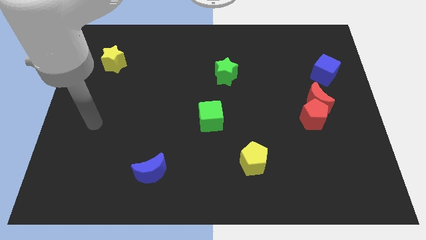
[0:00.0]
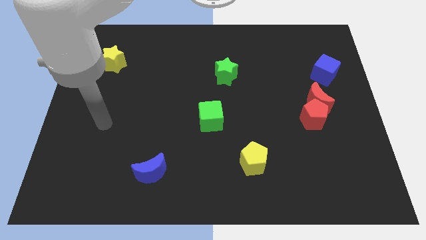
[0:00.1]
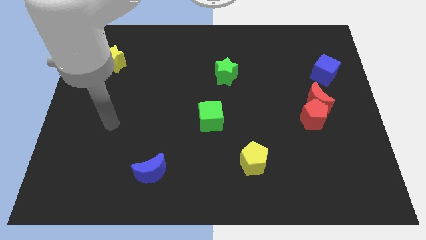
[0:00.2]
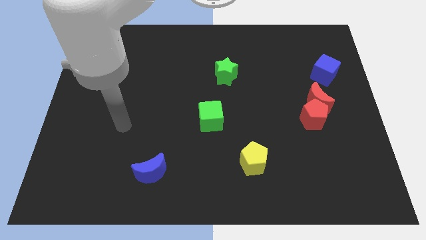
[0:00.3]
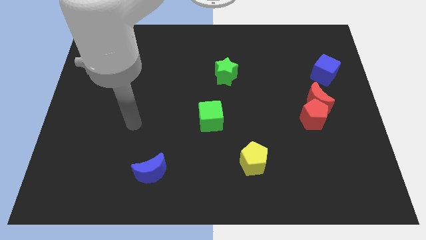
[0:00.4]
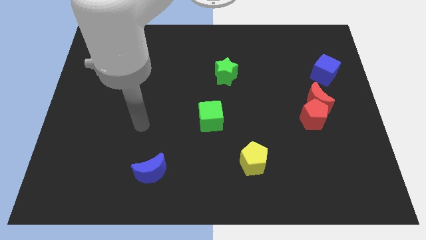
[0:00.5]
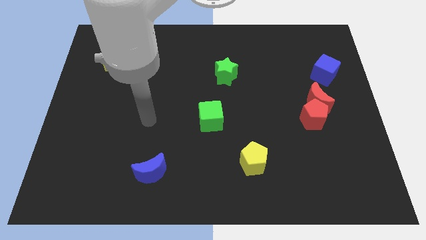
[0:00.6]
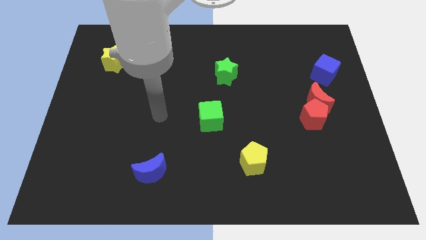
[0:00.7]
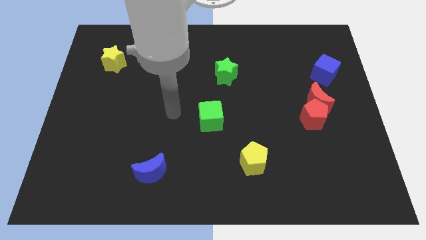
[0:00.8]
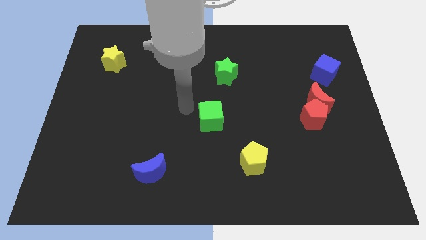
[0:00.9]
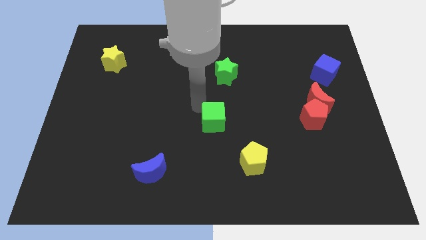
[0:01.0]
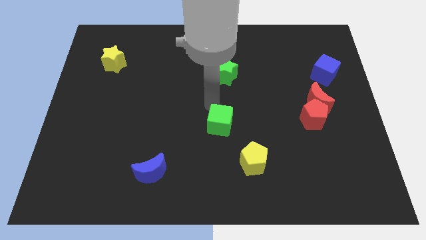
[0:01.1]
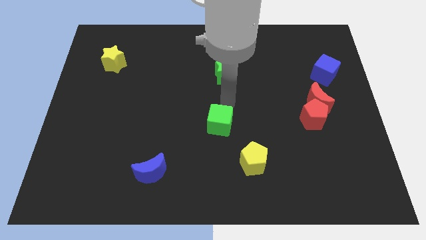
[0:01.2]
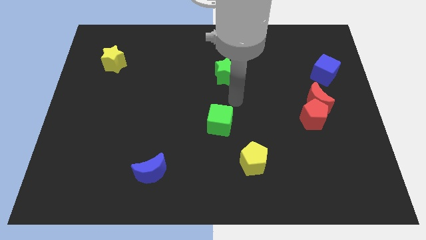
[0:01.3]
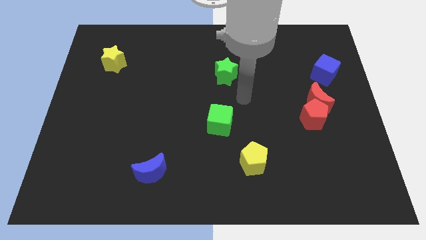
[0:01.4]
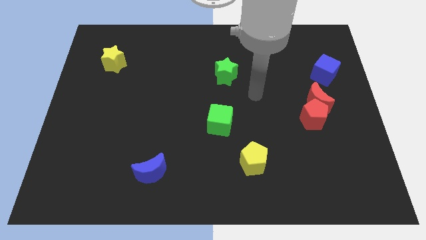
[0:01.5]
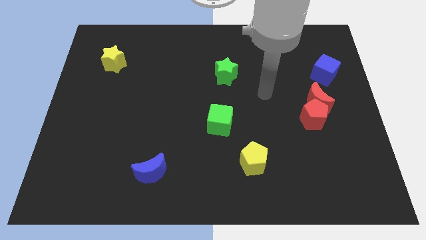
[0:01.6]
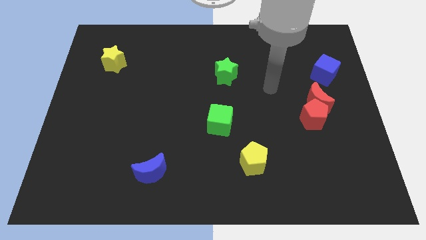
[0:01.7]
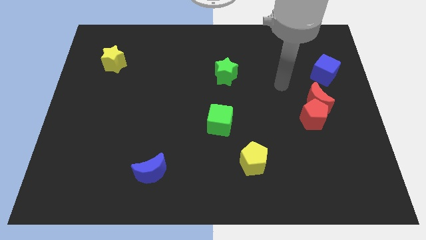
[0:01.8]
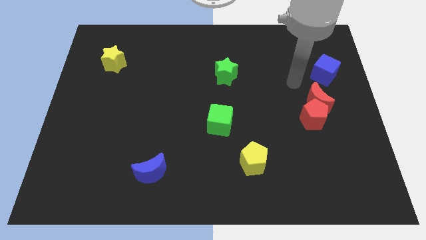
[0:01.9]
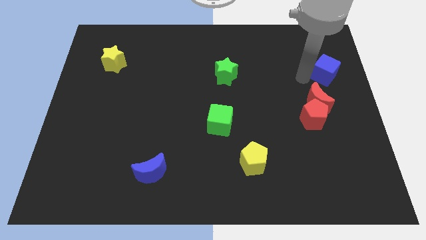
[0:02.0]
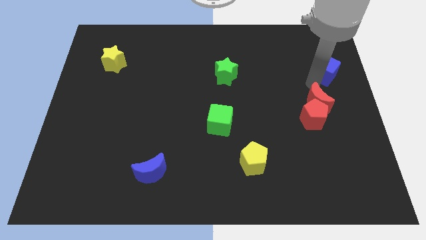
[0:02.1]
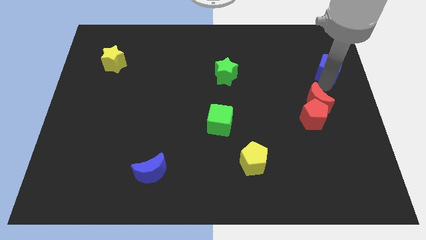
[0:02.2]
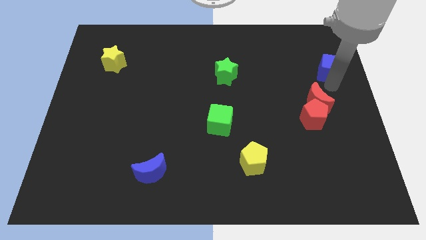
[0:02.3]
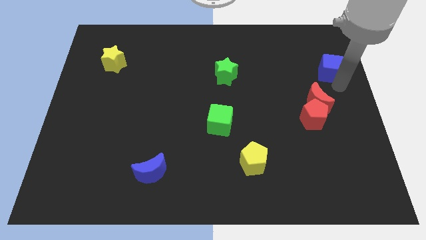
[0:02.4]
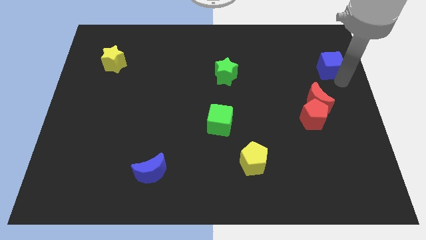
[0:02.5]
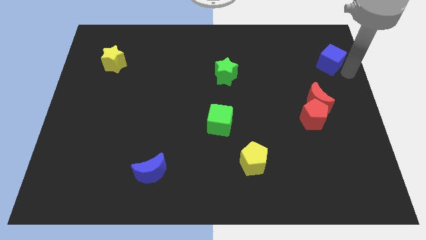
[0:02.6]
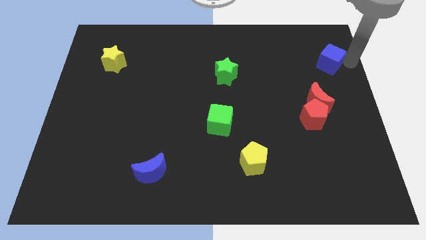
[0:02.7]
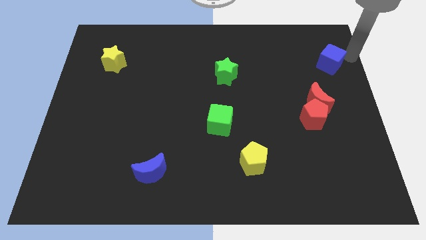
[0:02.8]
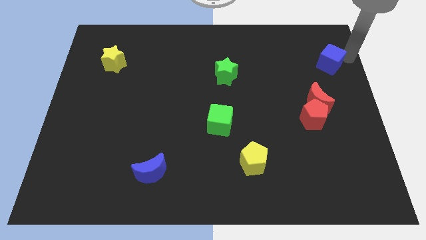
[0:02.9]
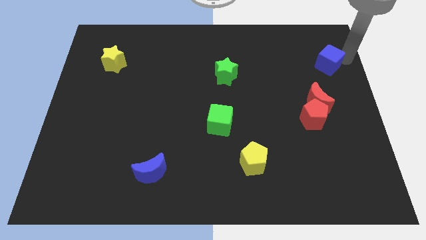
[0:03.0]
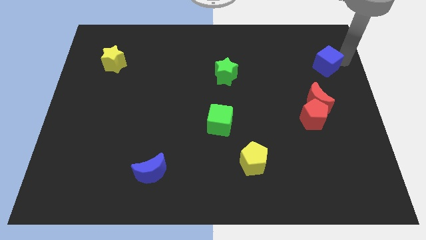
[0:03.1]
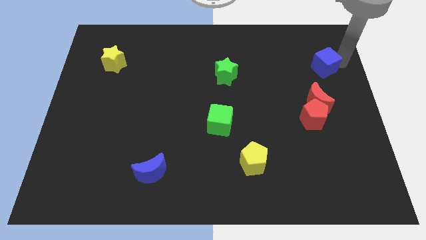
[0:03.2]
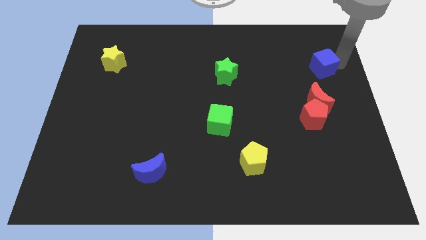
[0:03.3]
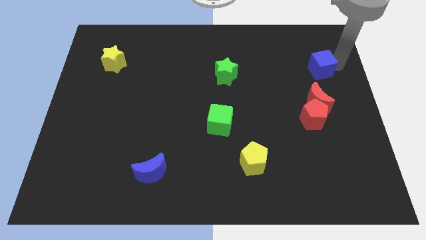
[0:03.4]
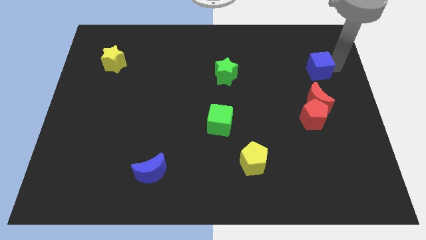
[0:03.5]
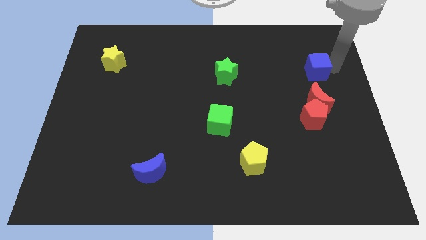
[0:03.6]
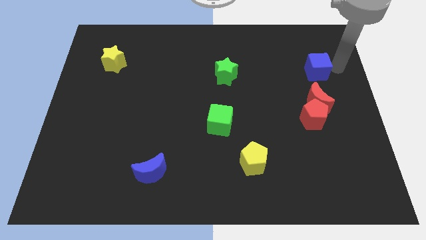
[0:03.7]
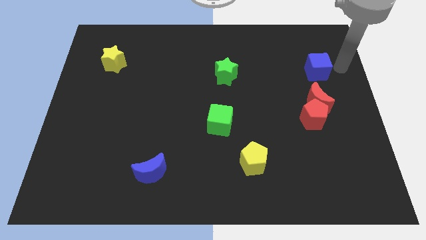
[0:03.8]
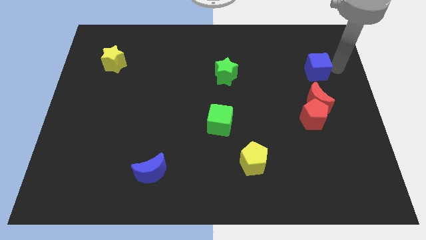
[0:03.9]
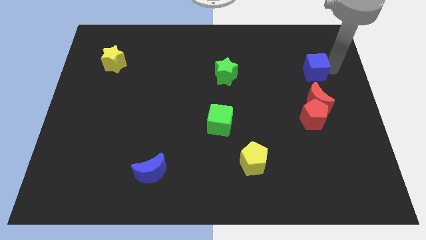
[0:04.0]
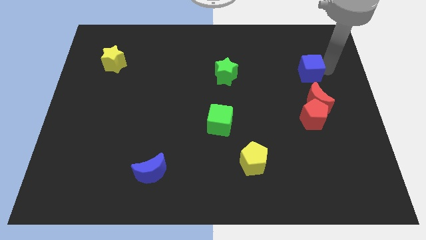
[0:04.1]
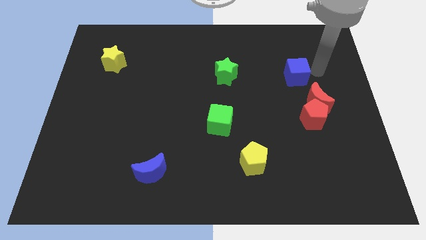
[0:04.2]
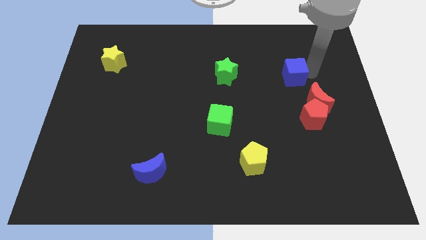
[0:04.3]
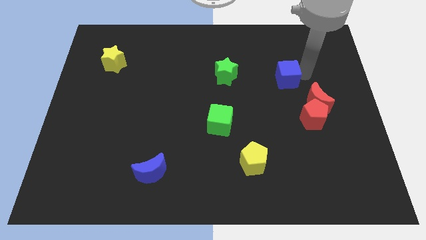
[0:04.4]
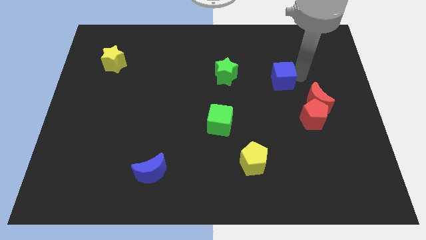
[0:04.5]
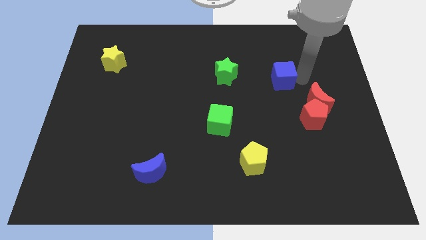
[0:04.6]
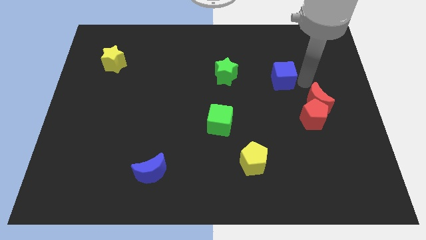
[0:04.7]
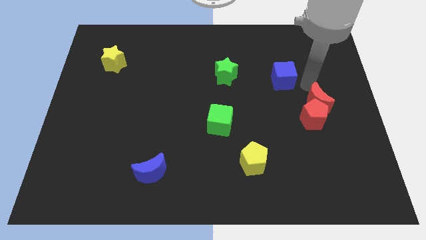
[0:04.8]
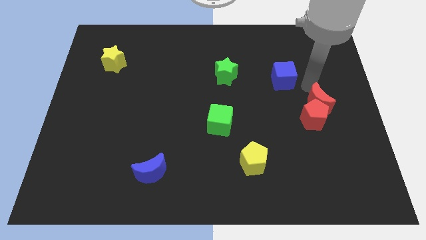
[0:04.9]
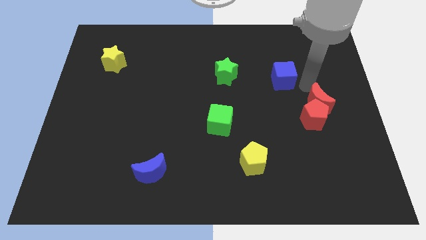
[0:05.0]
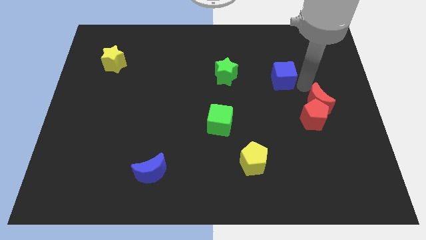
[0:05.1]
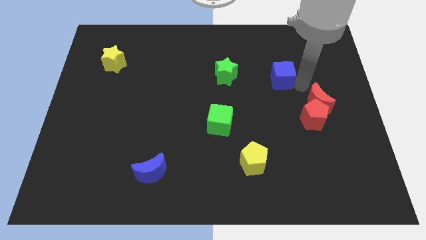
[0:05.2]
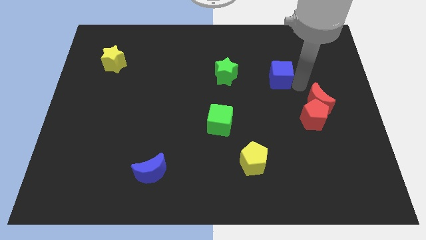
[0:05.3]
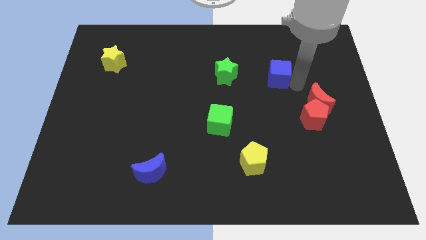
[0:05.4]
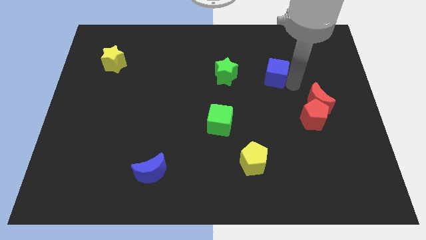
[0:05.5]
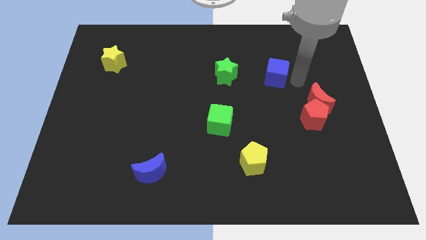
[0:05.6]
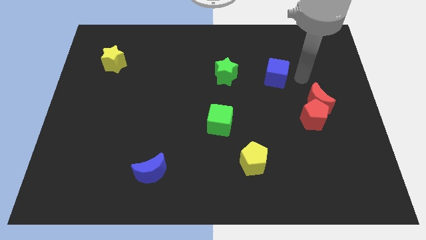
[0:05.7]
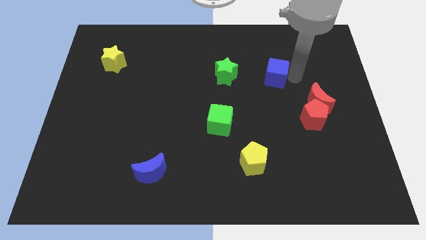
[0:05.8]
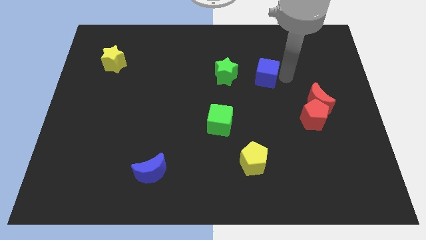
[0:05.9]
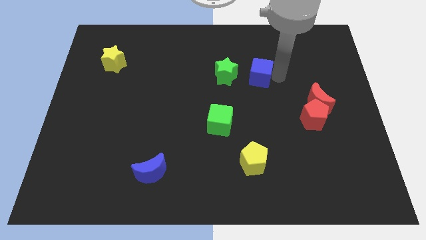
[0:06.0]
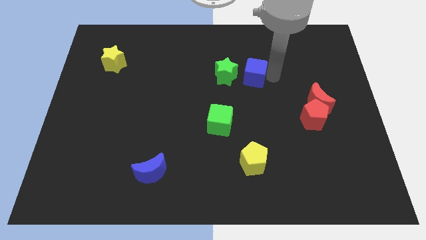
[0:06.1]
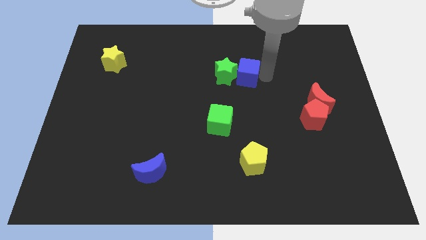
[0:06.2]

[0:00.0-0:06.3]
put the blue cube towards the green star
